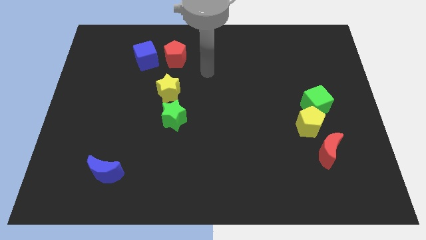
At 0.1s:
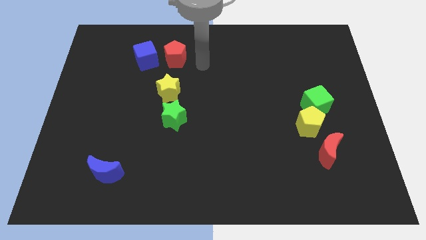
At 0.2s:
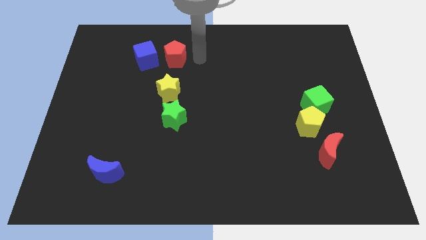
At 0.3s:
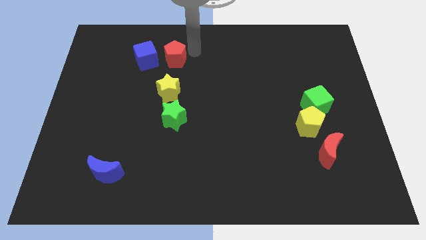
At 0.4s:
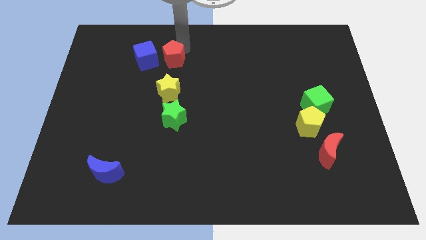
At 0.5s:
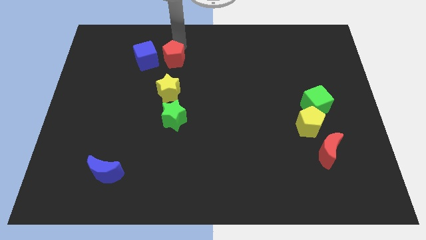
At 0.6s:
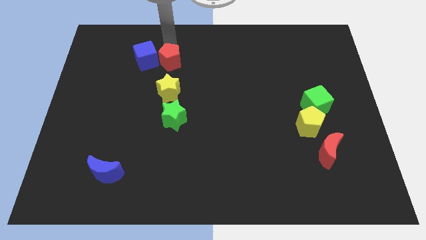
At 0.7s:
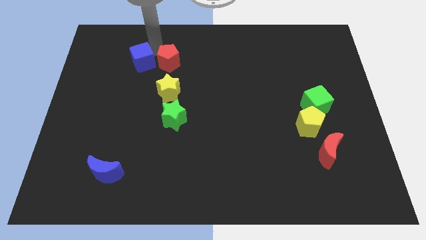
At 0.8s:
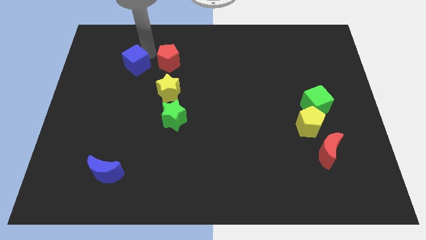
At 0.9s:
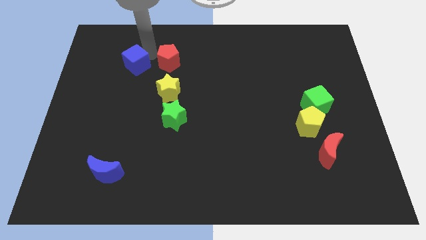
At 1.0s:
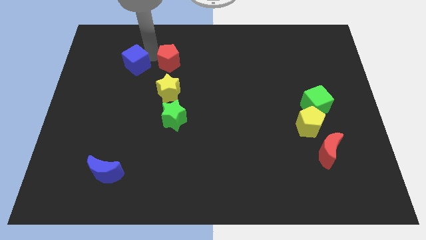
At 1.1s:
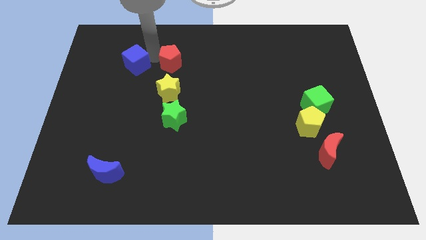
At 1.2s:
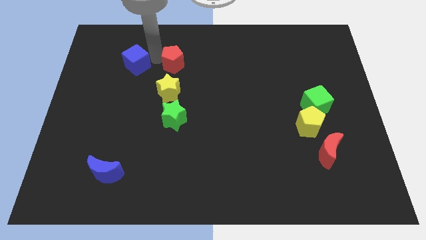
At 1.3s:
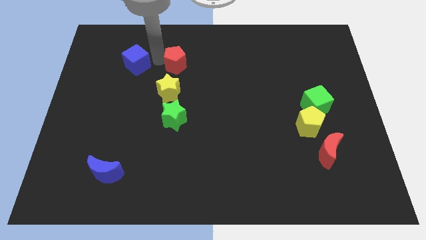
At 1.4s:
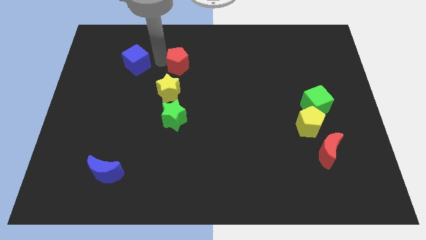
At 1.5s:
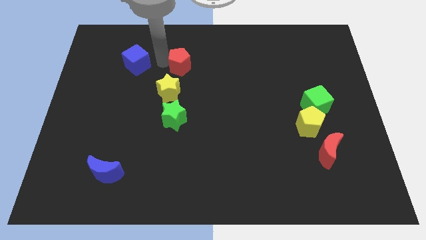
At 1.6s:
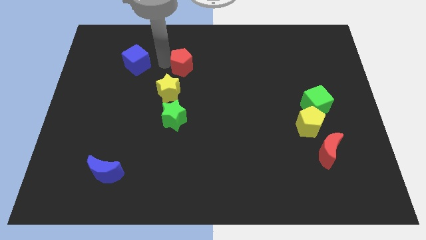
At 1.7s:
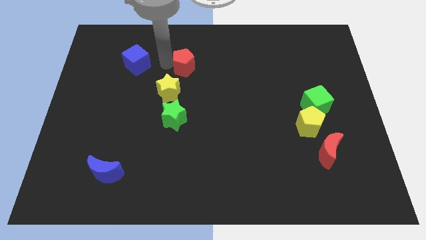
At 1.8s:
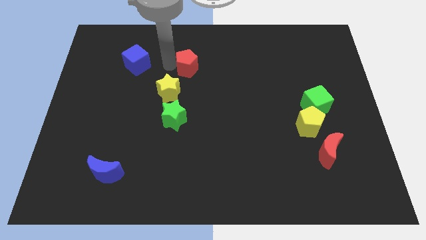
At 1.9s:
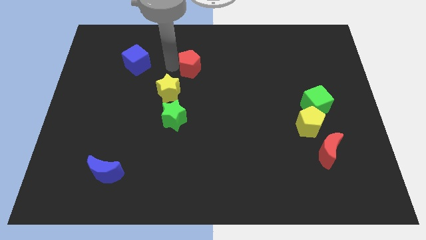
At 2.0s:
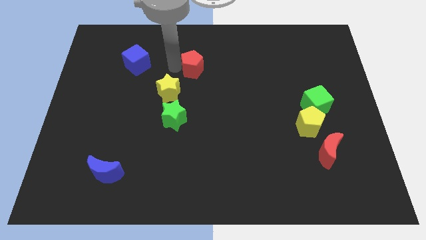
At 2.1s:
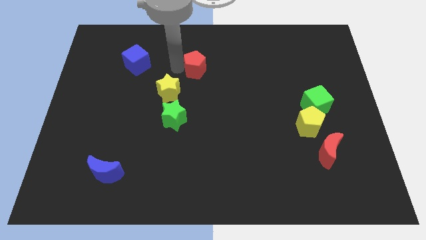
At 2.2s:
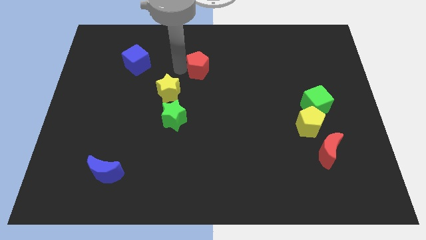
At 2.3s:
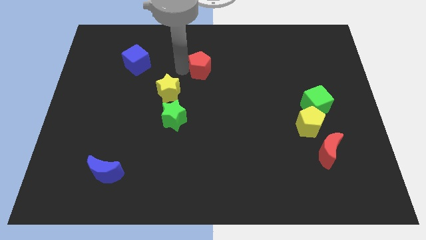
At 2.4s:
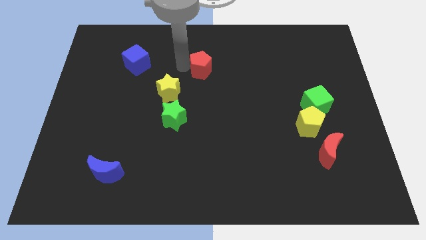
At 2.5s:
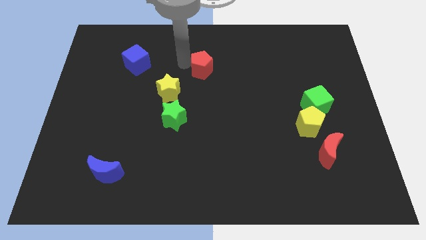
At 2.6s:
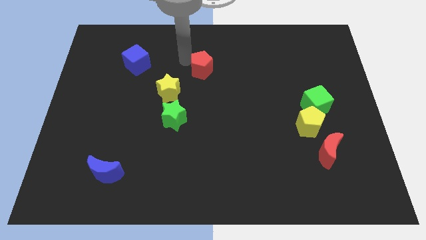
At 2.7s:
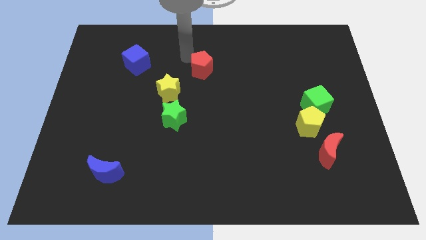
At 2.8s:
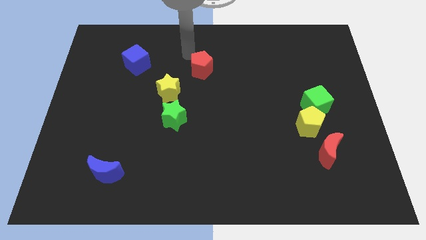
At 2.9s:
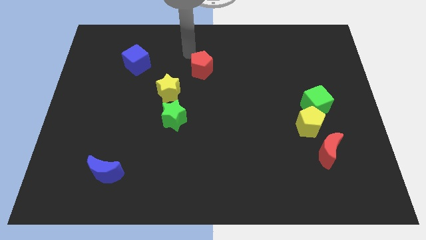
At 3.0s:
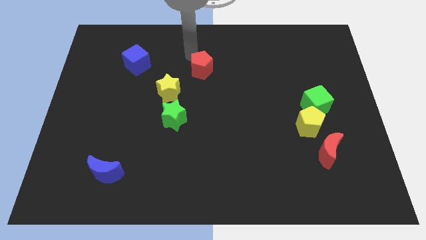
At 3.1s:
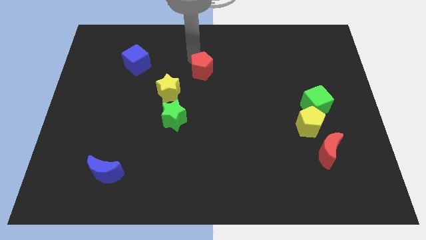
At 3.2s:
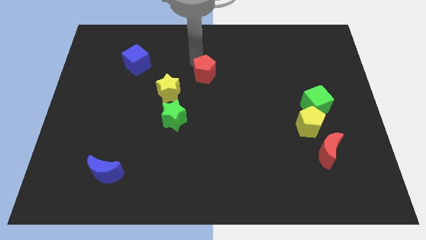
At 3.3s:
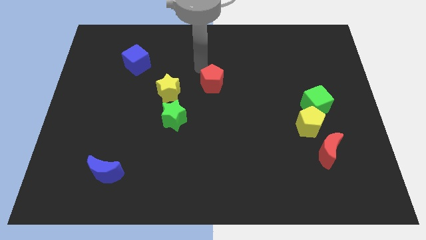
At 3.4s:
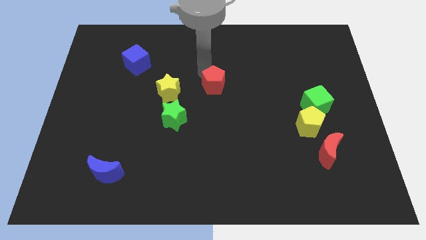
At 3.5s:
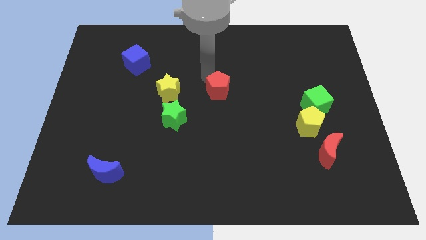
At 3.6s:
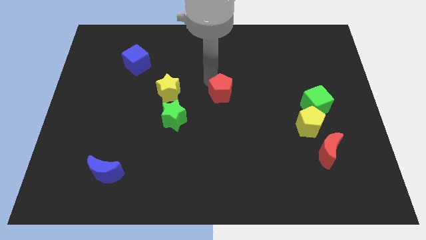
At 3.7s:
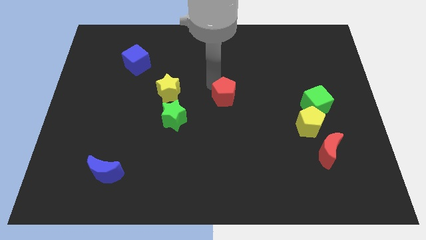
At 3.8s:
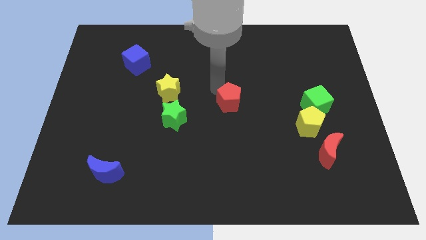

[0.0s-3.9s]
slide the red pentagon down and right diagonally

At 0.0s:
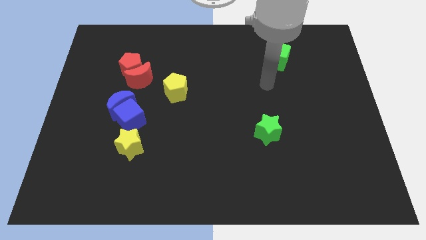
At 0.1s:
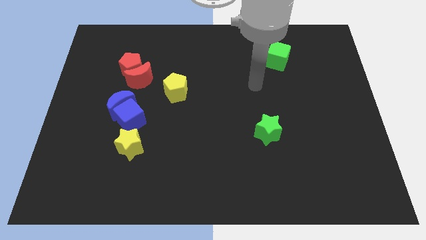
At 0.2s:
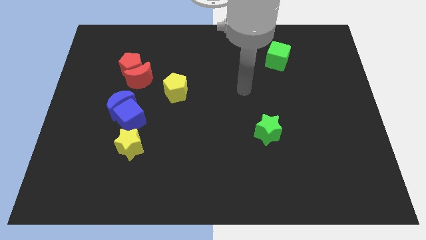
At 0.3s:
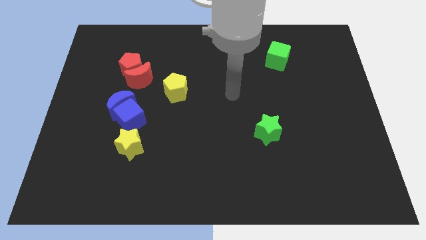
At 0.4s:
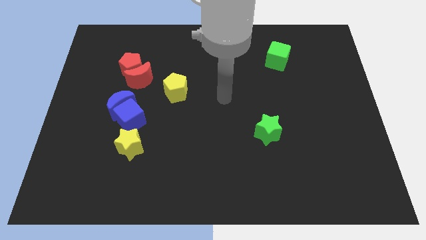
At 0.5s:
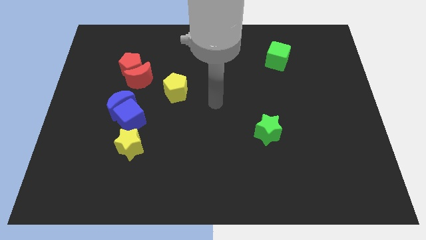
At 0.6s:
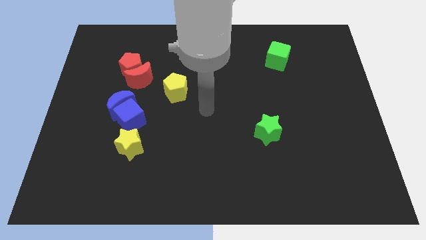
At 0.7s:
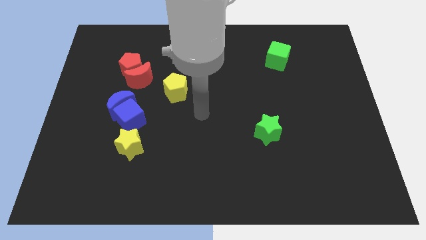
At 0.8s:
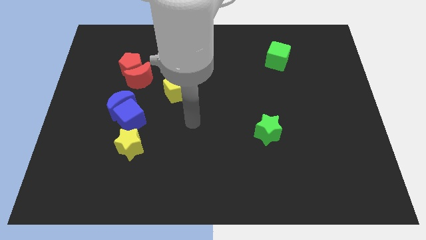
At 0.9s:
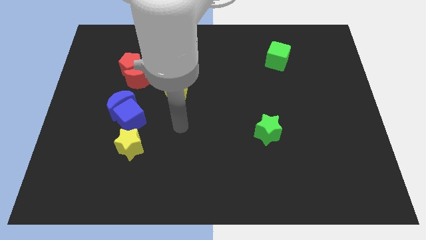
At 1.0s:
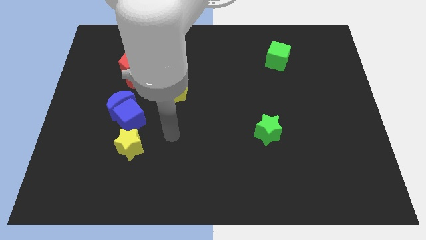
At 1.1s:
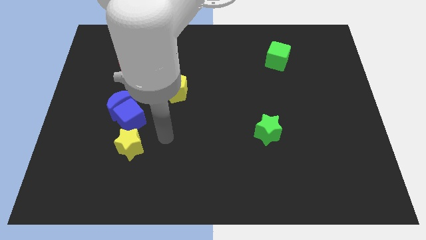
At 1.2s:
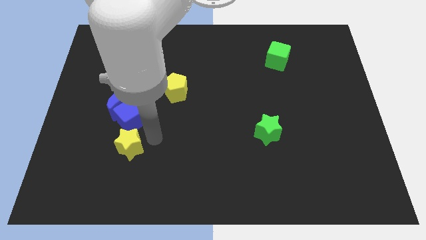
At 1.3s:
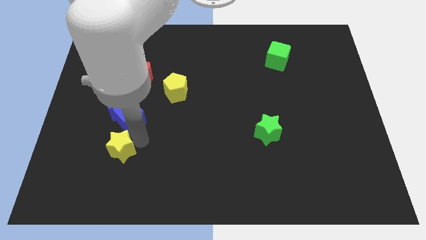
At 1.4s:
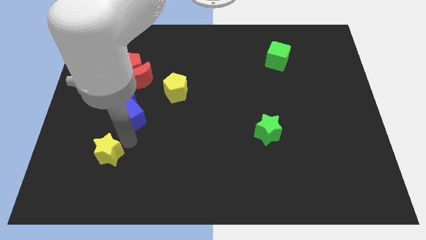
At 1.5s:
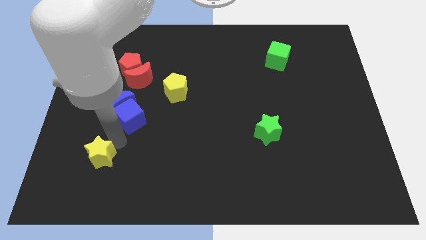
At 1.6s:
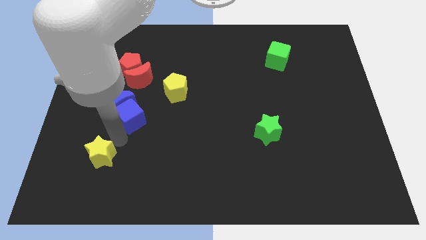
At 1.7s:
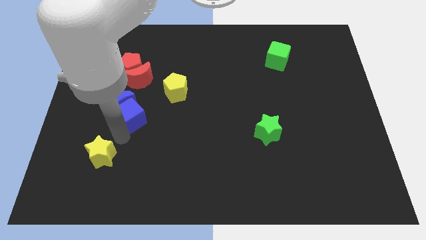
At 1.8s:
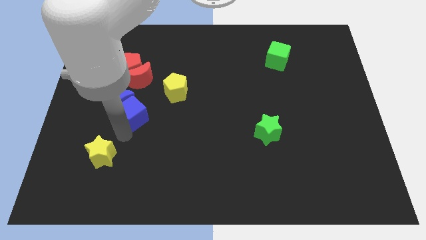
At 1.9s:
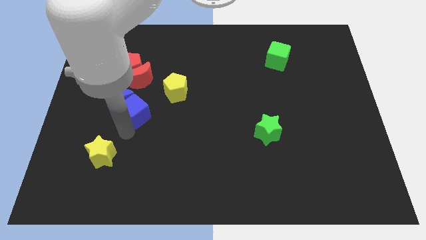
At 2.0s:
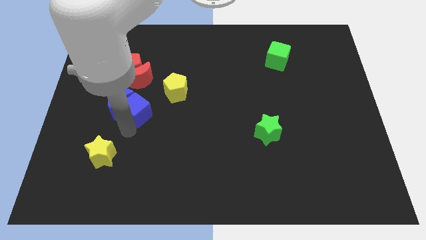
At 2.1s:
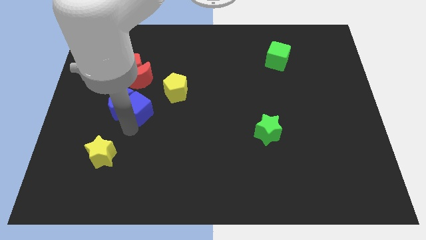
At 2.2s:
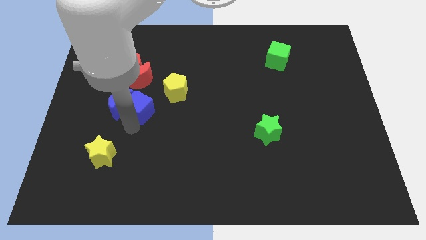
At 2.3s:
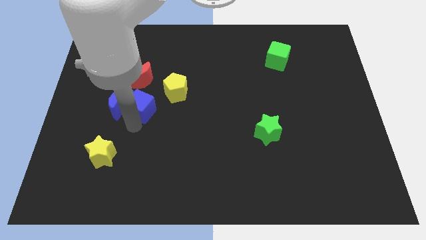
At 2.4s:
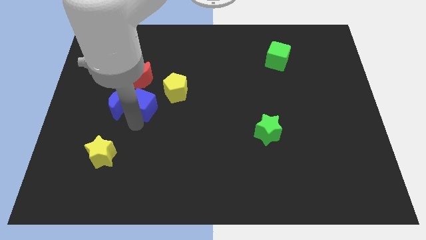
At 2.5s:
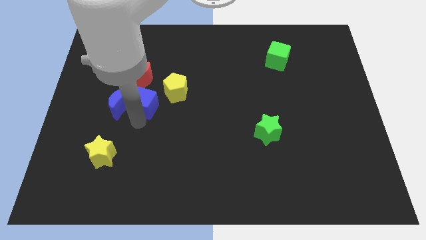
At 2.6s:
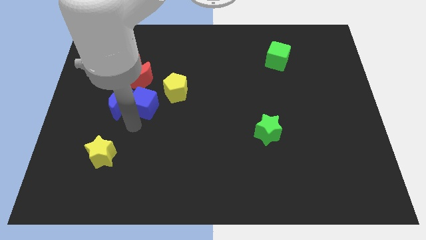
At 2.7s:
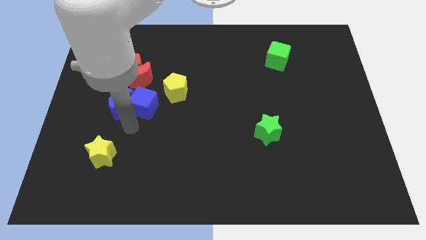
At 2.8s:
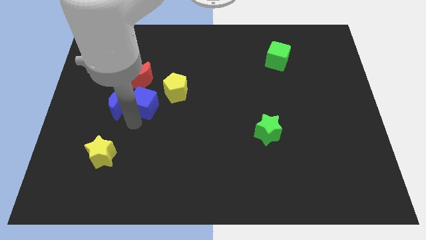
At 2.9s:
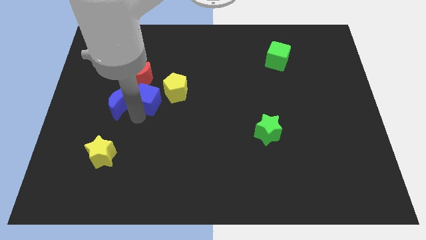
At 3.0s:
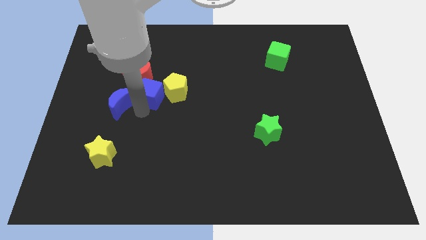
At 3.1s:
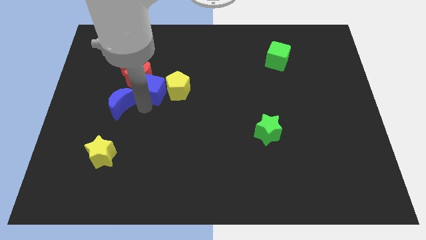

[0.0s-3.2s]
push the blue cube up a little

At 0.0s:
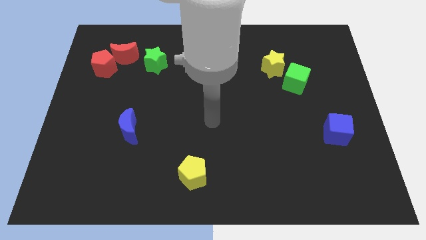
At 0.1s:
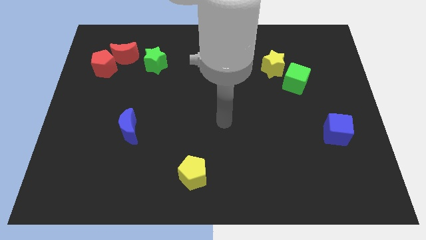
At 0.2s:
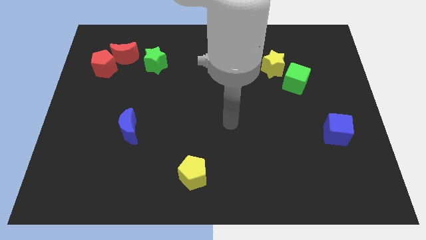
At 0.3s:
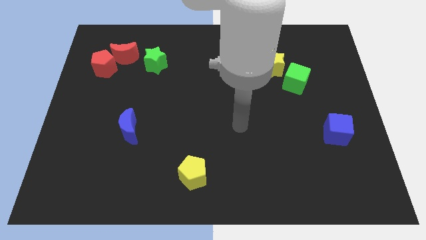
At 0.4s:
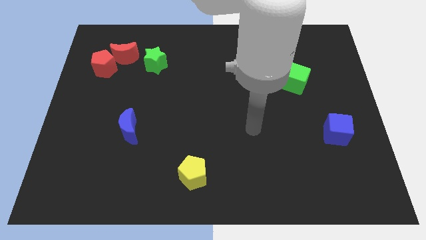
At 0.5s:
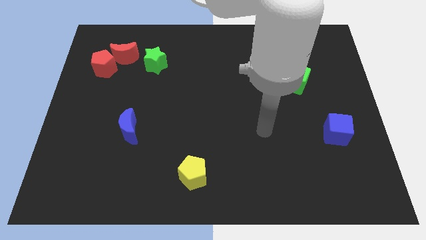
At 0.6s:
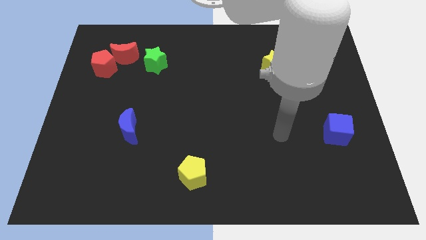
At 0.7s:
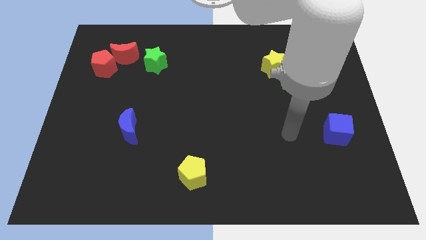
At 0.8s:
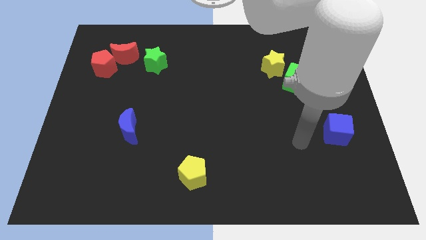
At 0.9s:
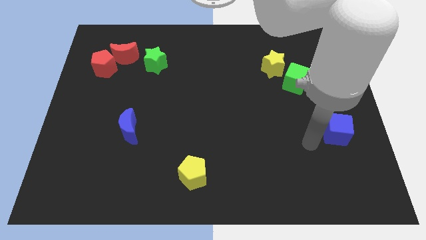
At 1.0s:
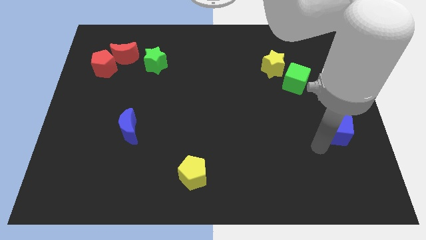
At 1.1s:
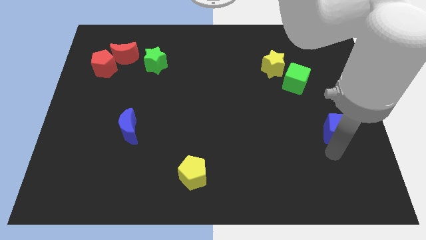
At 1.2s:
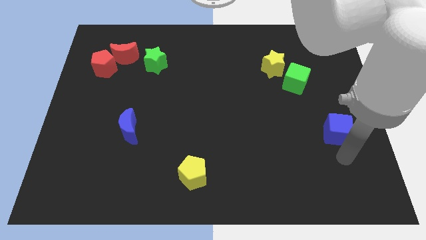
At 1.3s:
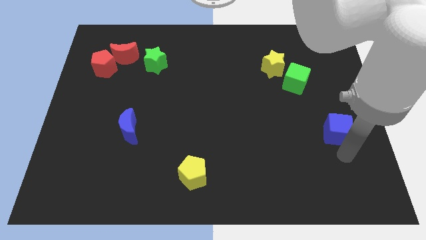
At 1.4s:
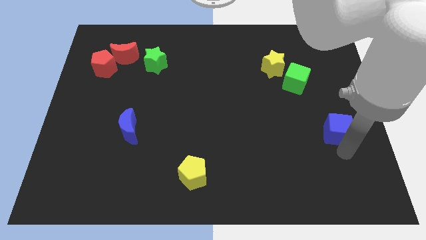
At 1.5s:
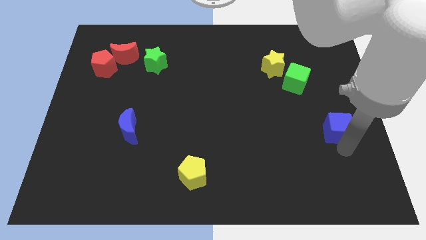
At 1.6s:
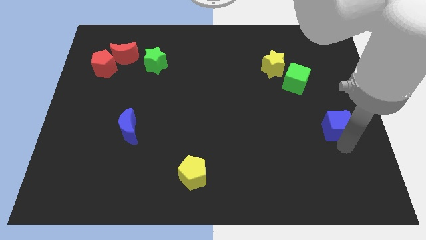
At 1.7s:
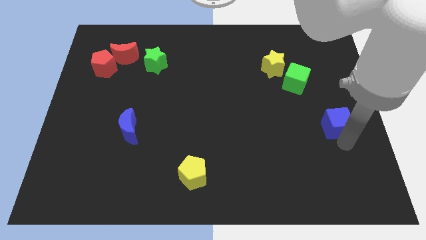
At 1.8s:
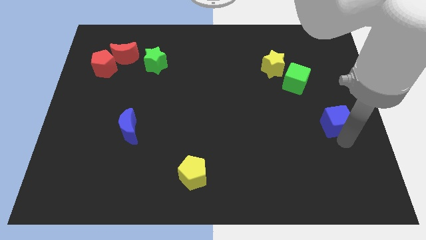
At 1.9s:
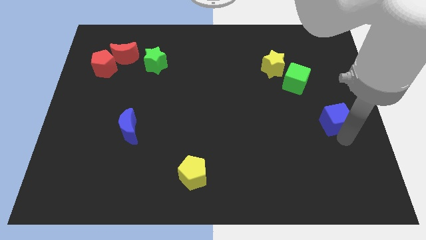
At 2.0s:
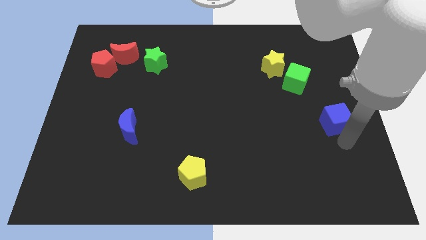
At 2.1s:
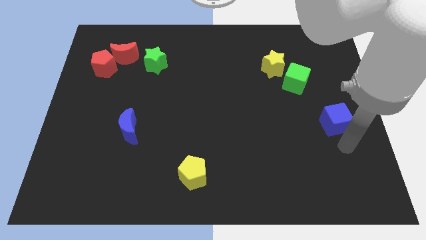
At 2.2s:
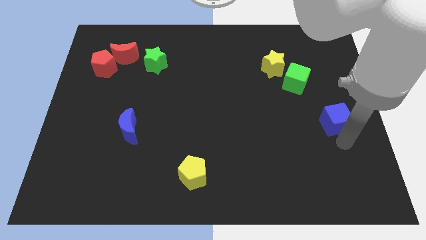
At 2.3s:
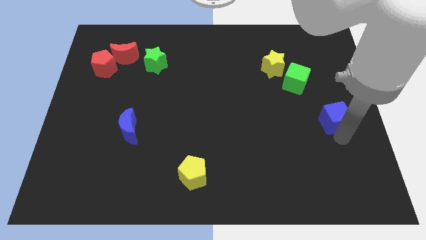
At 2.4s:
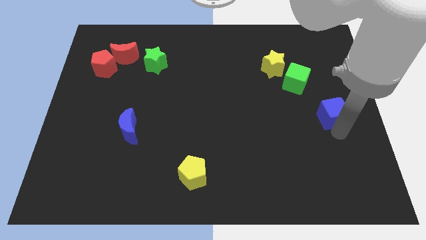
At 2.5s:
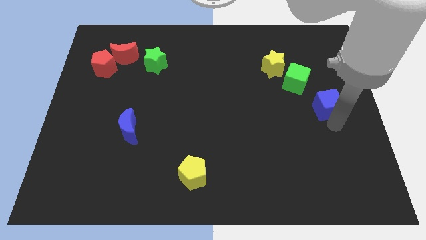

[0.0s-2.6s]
move the blue cube somewhat up
